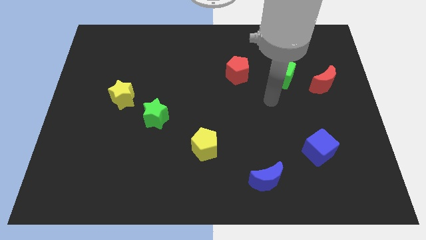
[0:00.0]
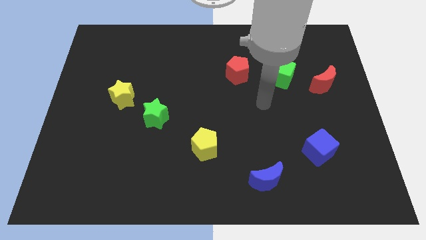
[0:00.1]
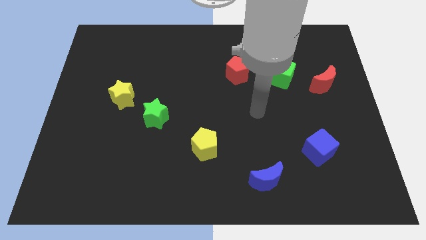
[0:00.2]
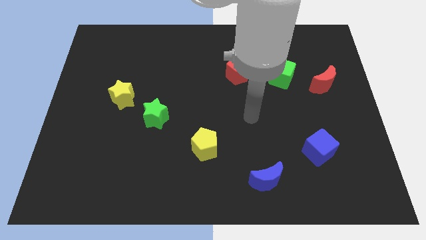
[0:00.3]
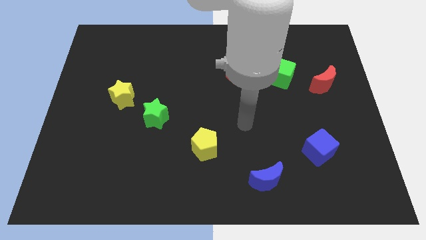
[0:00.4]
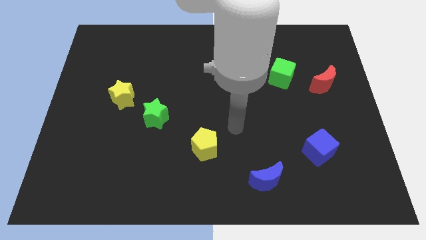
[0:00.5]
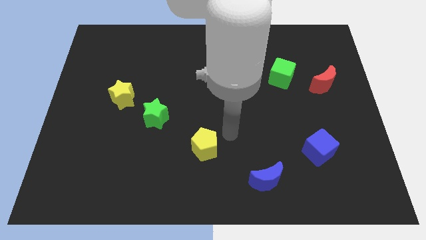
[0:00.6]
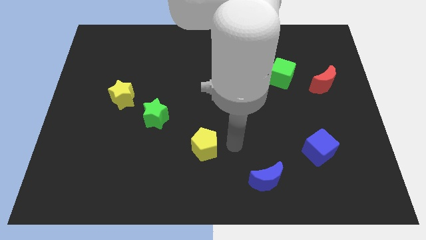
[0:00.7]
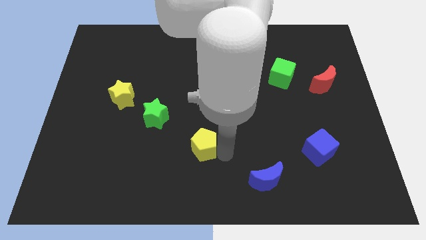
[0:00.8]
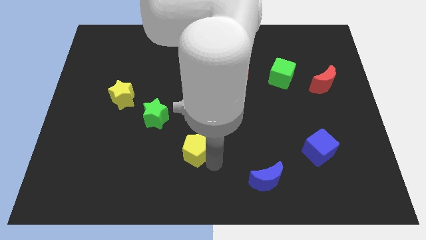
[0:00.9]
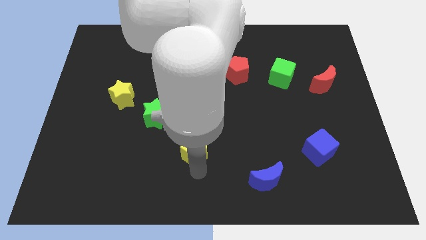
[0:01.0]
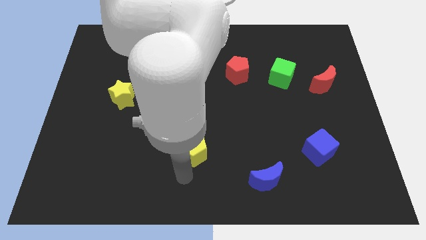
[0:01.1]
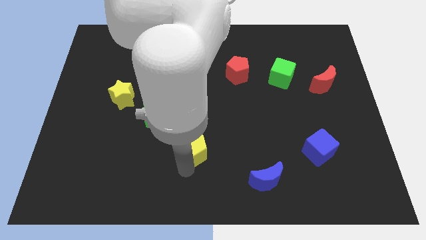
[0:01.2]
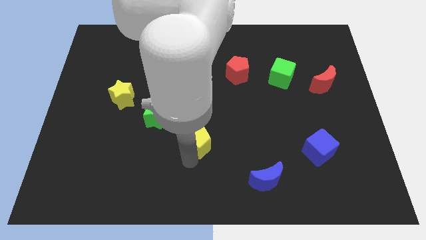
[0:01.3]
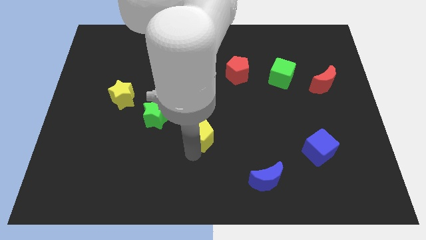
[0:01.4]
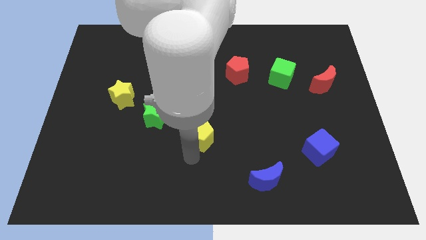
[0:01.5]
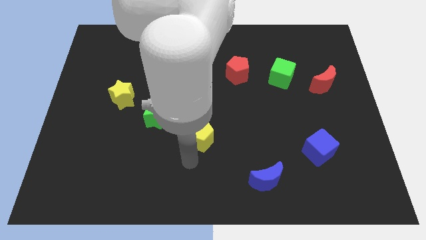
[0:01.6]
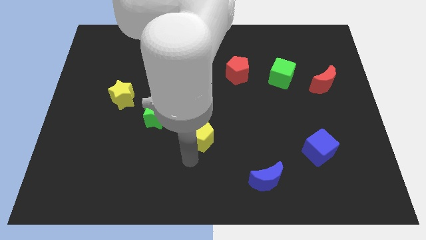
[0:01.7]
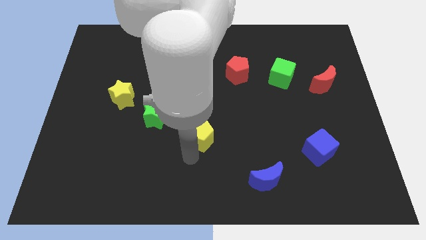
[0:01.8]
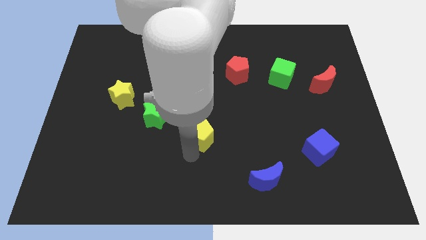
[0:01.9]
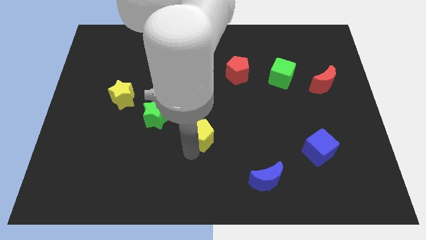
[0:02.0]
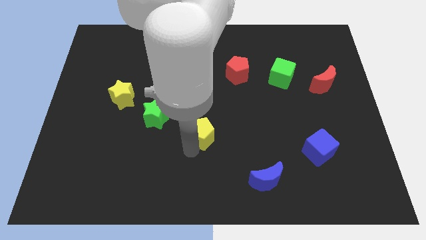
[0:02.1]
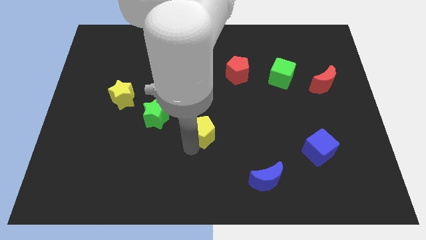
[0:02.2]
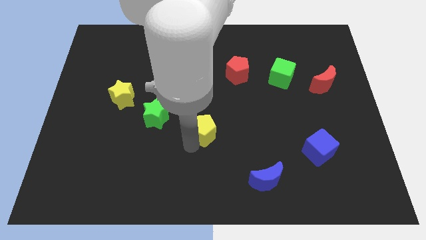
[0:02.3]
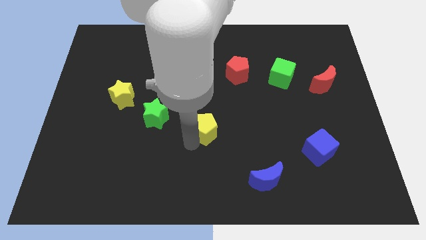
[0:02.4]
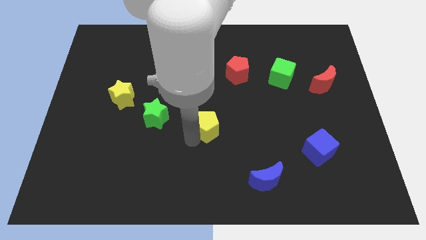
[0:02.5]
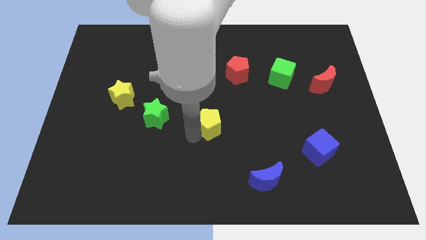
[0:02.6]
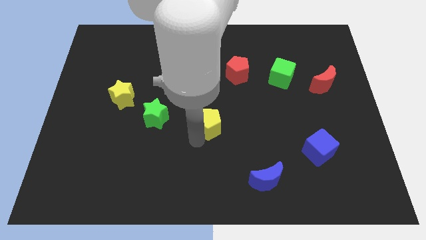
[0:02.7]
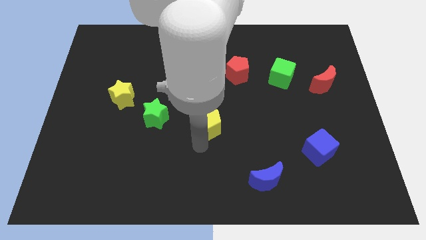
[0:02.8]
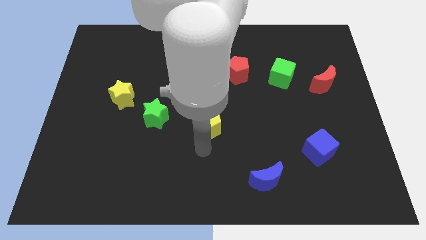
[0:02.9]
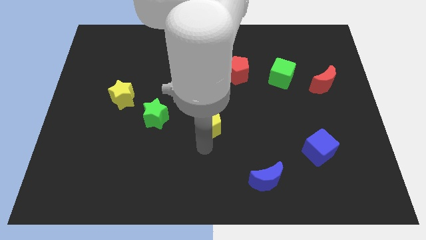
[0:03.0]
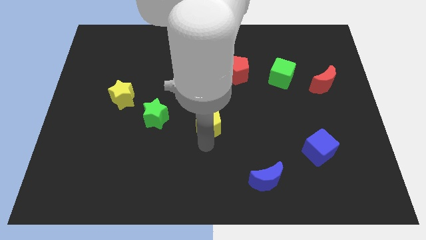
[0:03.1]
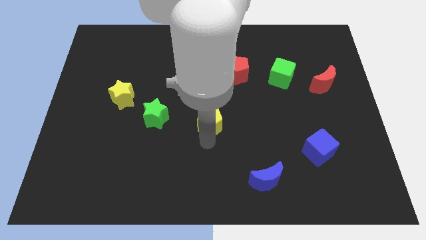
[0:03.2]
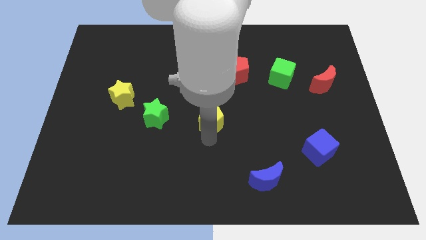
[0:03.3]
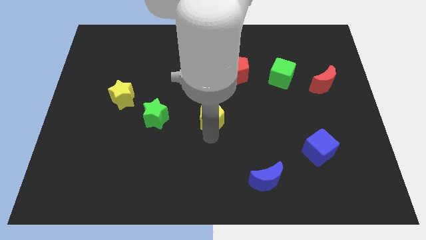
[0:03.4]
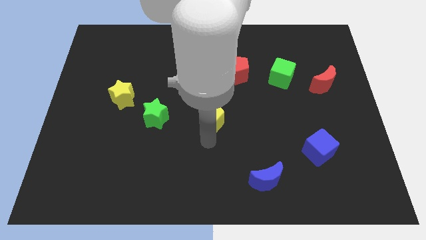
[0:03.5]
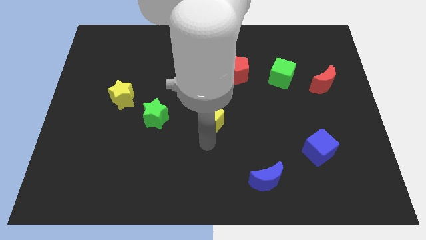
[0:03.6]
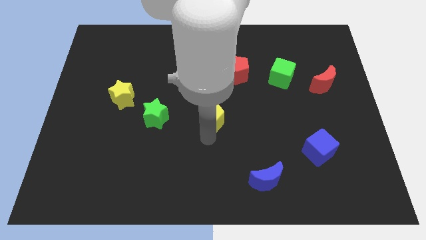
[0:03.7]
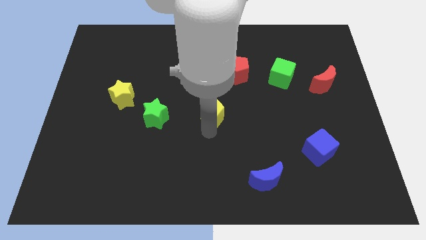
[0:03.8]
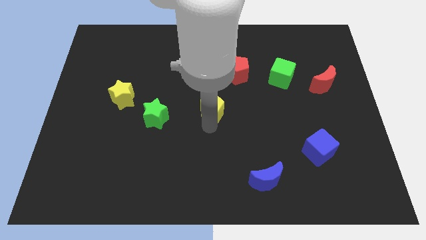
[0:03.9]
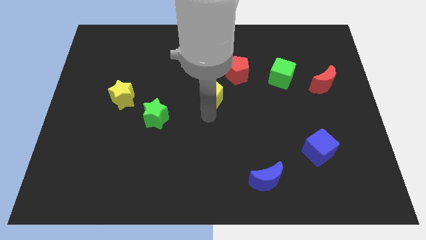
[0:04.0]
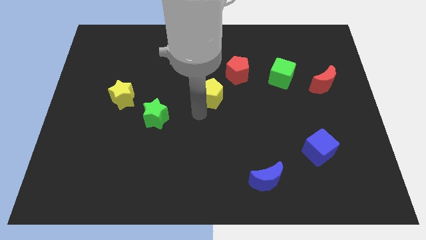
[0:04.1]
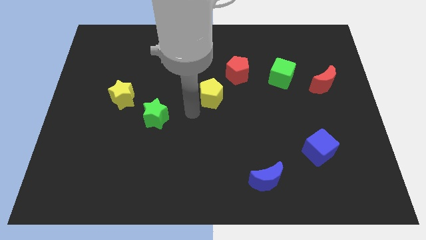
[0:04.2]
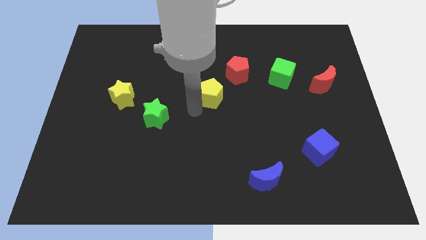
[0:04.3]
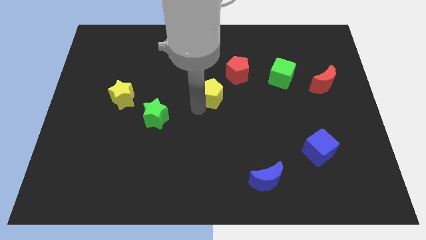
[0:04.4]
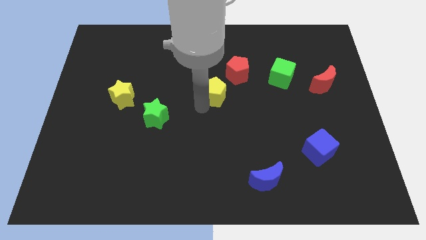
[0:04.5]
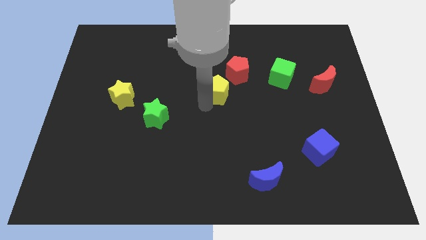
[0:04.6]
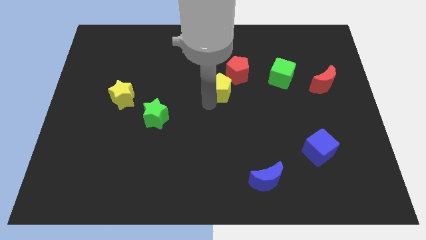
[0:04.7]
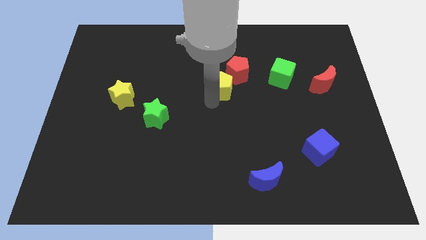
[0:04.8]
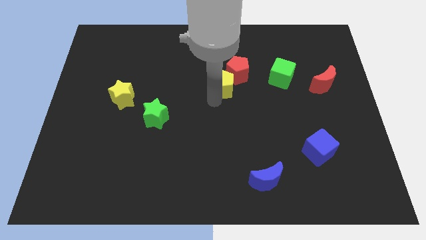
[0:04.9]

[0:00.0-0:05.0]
slide the yellow pentagon next to the red pentagon

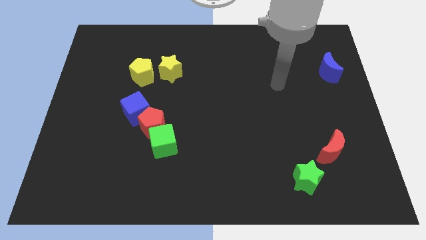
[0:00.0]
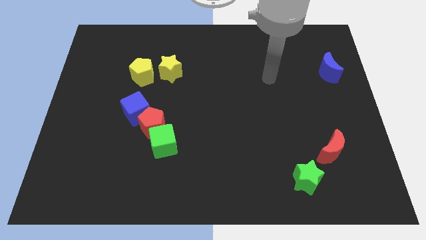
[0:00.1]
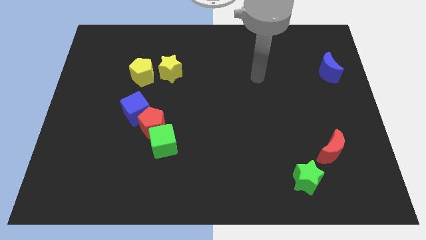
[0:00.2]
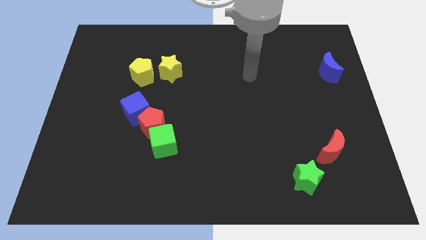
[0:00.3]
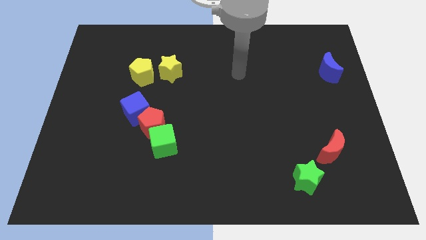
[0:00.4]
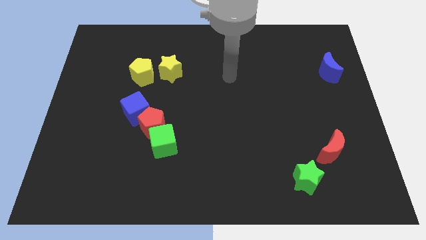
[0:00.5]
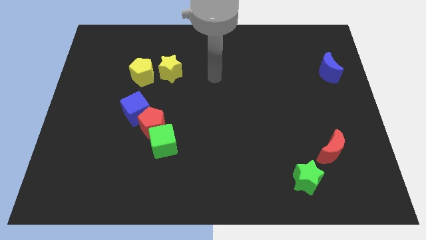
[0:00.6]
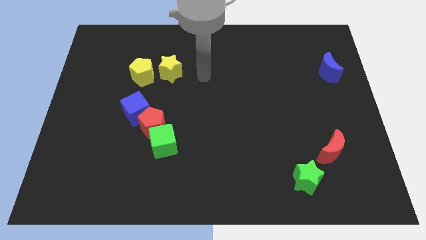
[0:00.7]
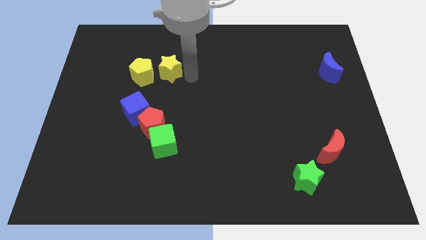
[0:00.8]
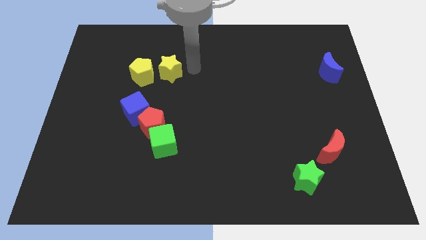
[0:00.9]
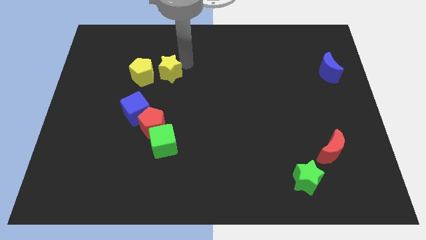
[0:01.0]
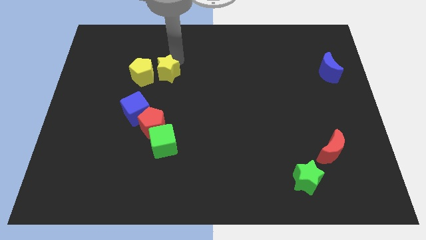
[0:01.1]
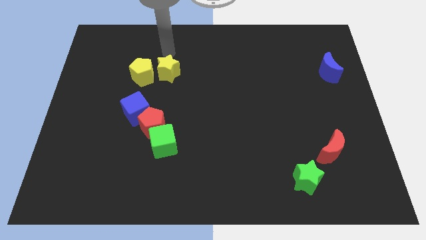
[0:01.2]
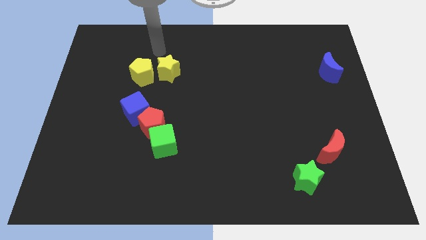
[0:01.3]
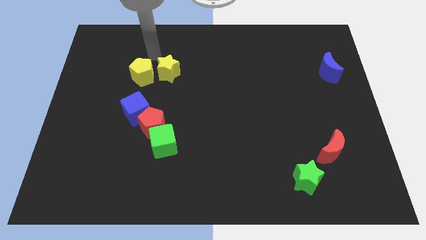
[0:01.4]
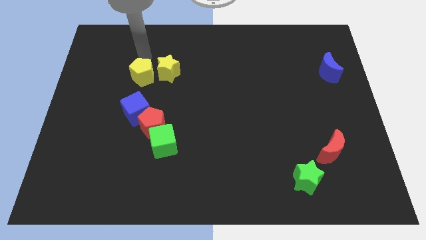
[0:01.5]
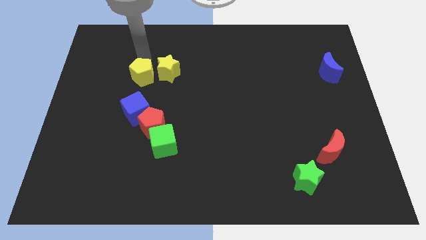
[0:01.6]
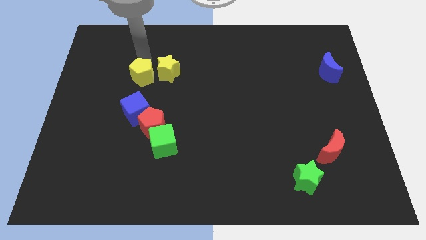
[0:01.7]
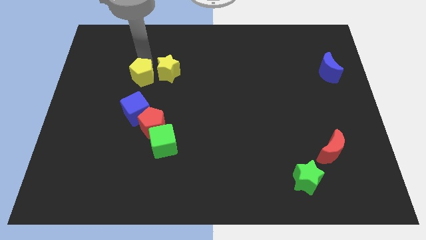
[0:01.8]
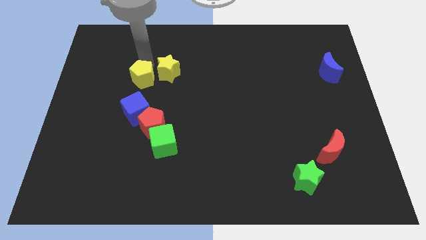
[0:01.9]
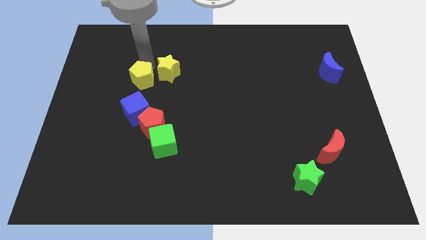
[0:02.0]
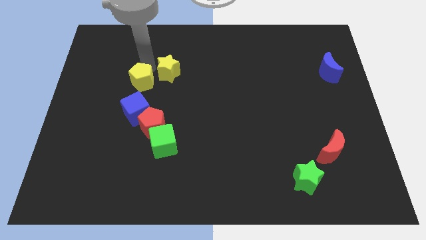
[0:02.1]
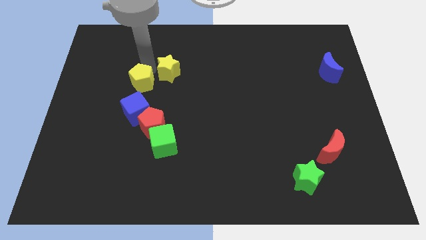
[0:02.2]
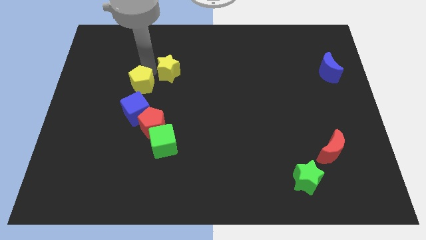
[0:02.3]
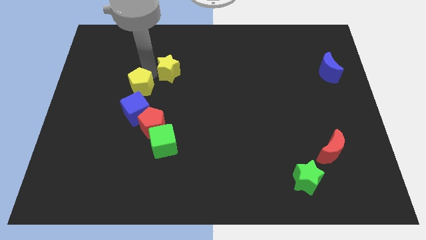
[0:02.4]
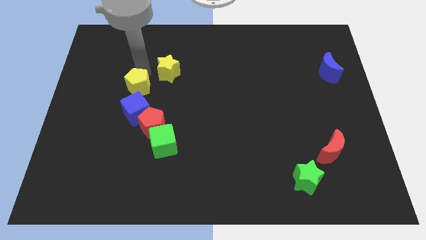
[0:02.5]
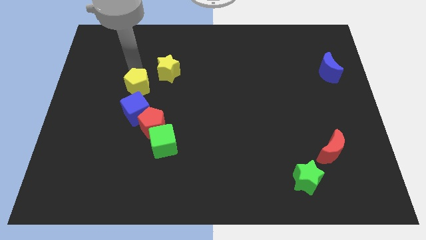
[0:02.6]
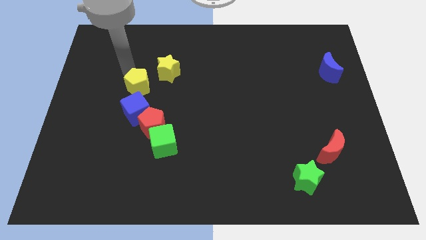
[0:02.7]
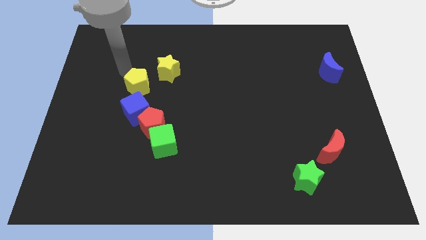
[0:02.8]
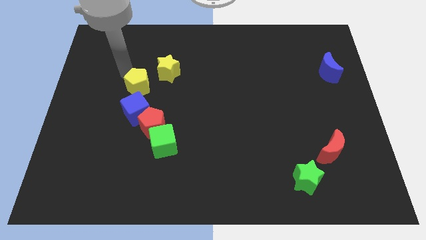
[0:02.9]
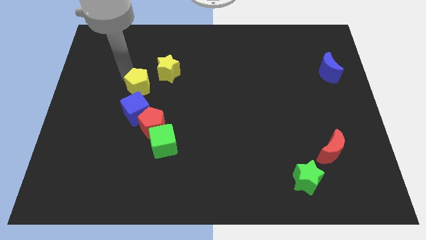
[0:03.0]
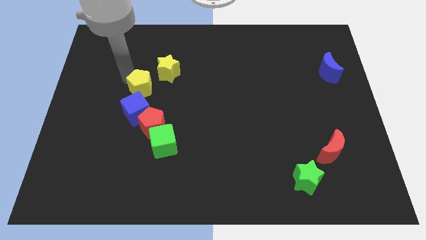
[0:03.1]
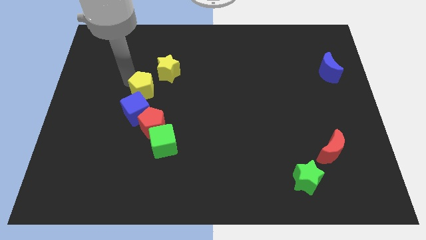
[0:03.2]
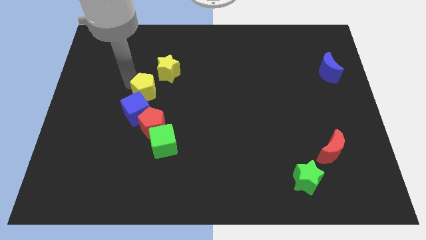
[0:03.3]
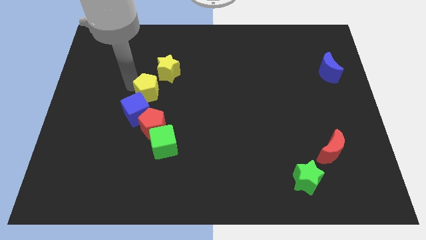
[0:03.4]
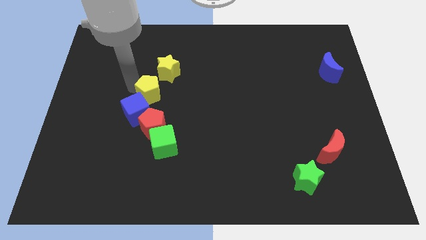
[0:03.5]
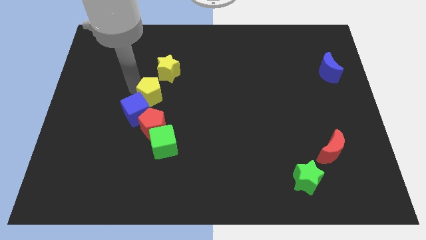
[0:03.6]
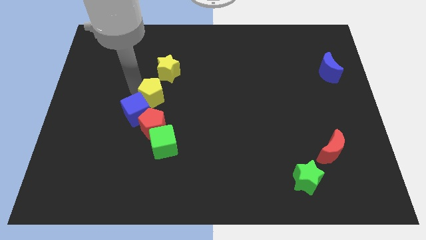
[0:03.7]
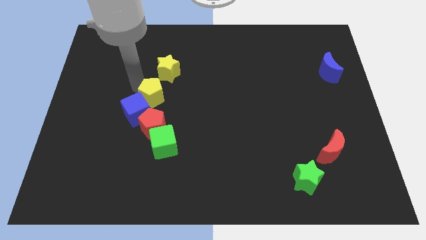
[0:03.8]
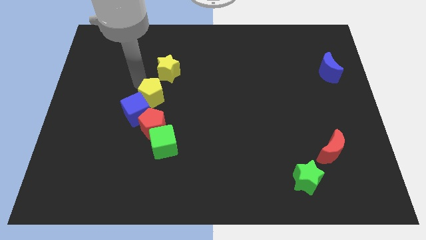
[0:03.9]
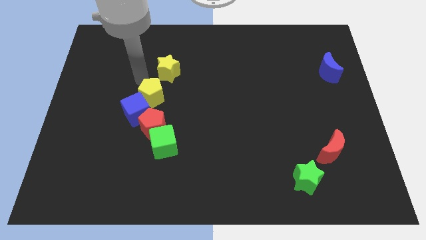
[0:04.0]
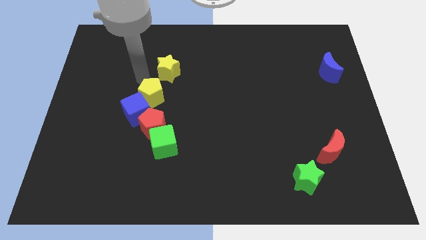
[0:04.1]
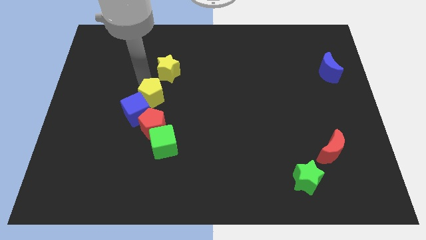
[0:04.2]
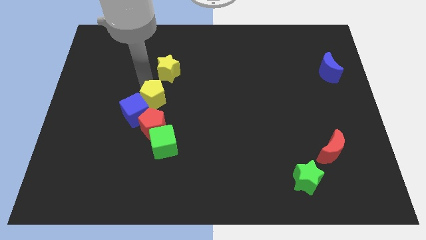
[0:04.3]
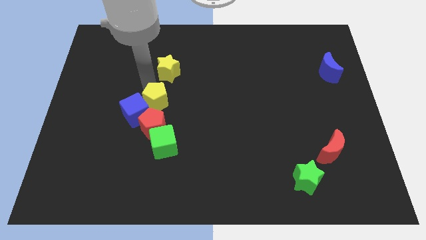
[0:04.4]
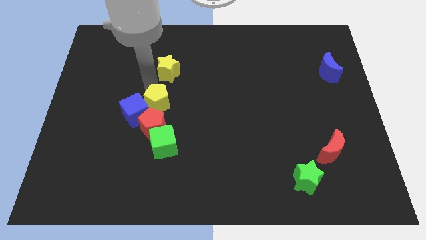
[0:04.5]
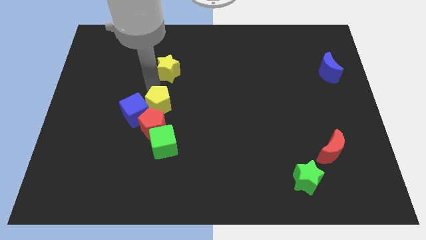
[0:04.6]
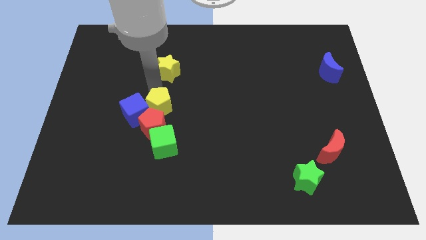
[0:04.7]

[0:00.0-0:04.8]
slide the yellow pentagon close to the red pentagon
